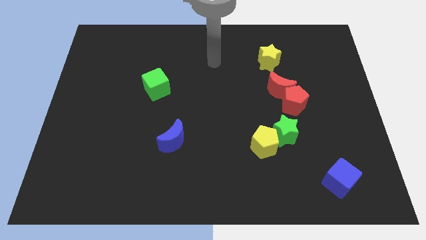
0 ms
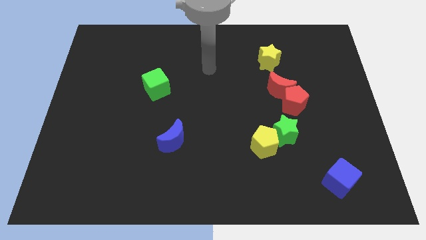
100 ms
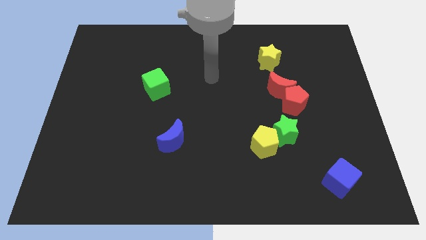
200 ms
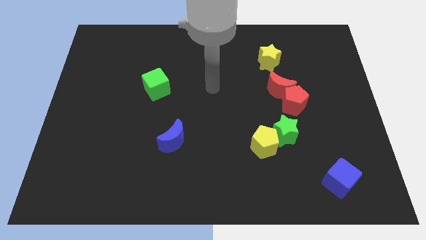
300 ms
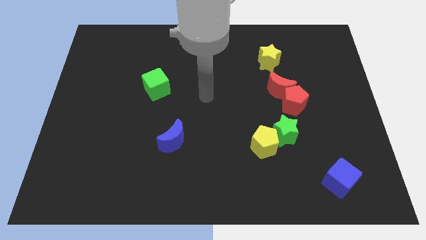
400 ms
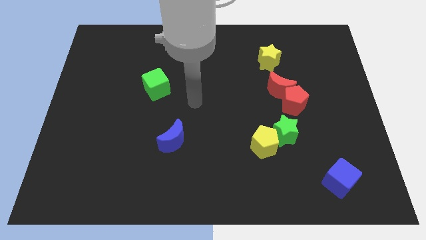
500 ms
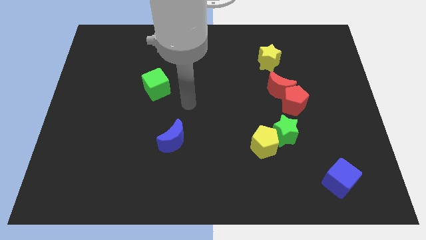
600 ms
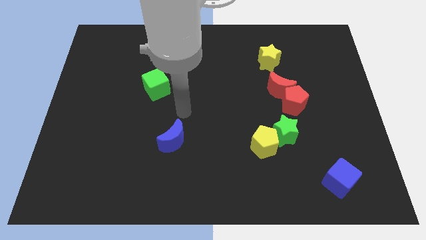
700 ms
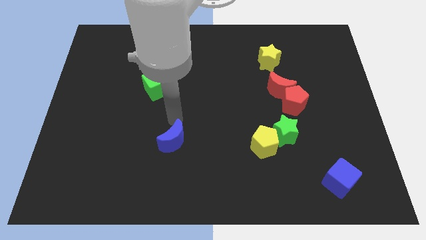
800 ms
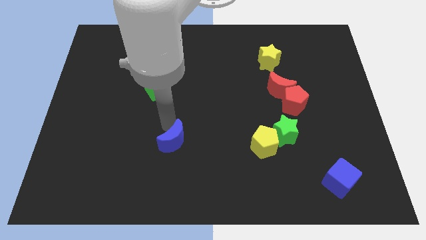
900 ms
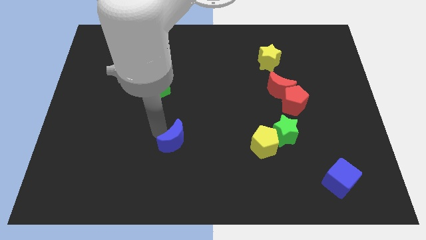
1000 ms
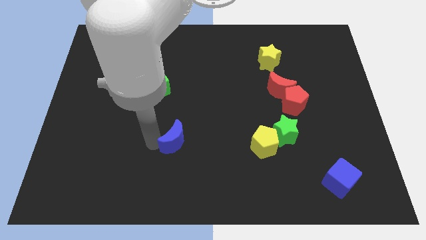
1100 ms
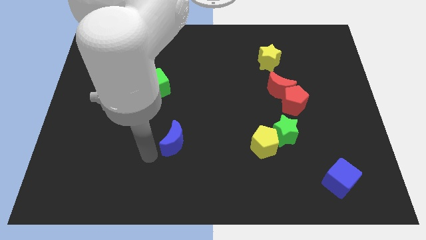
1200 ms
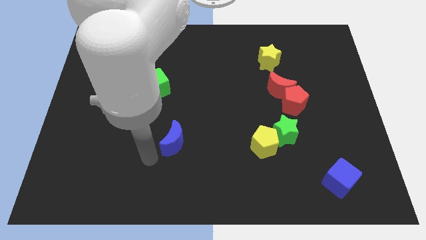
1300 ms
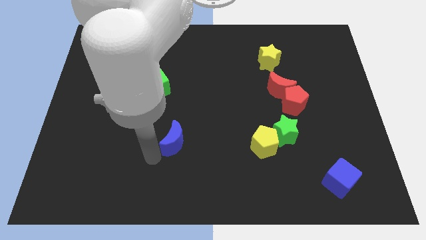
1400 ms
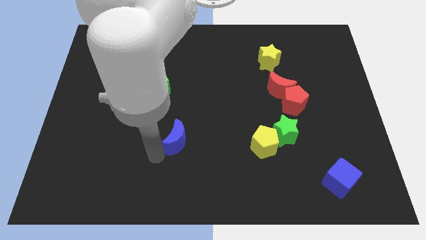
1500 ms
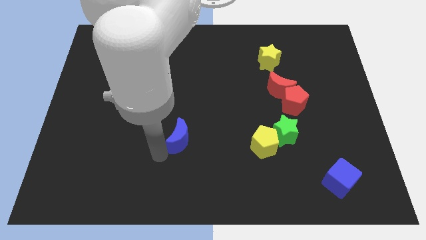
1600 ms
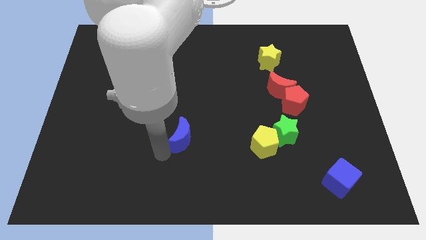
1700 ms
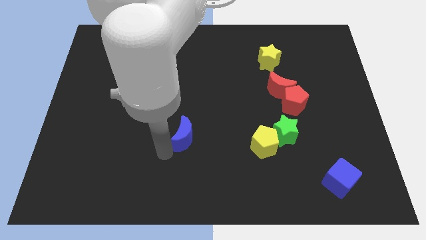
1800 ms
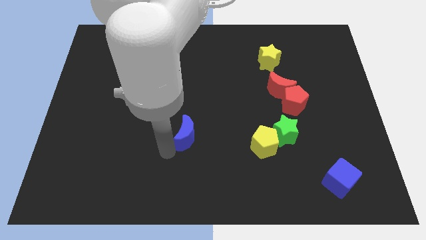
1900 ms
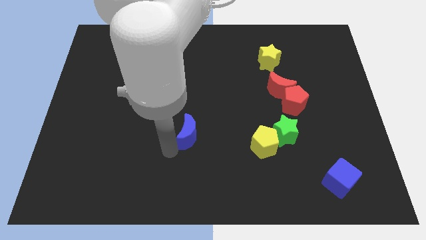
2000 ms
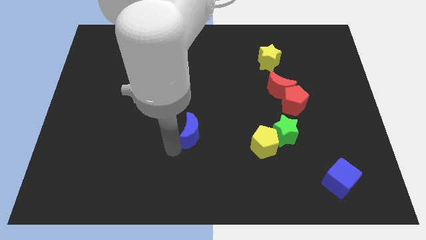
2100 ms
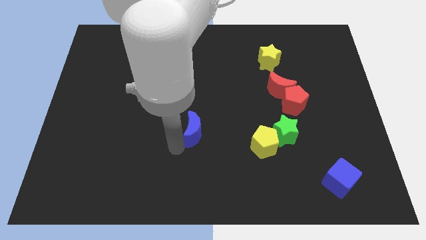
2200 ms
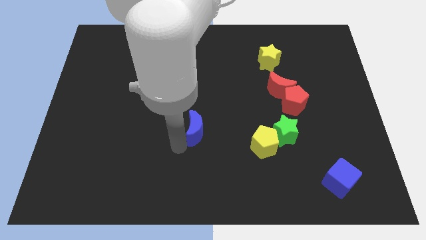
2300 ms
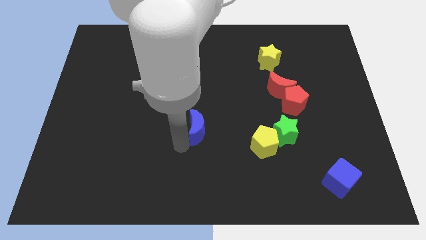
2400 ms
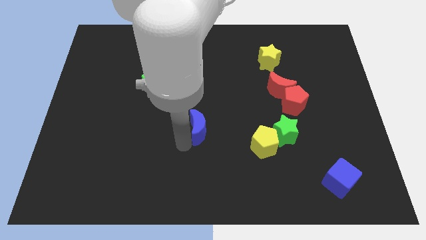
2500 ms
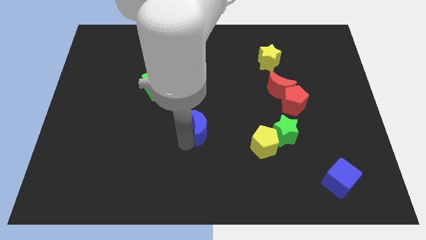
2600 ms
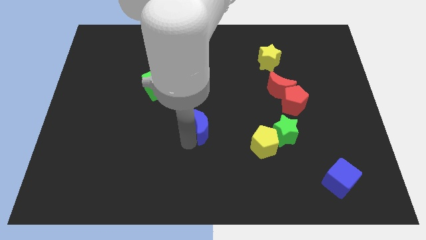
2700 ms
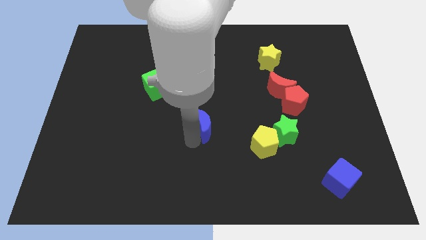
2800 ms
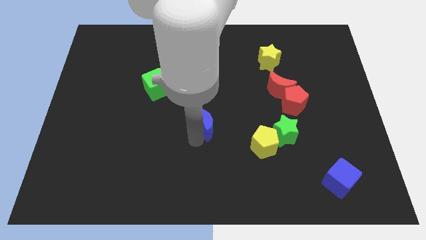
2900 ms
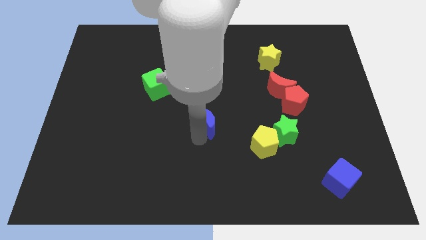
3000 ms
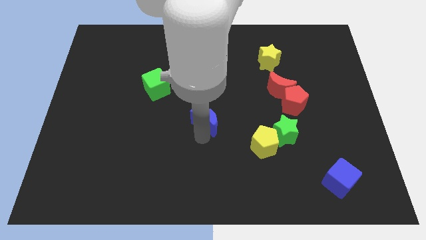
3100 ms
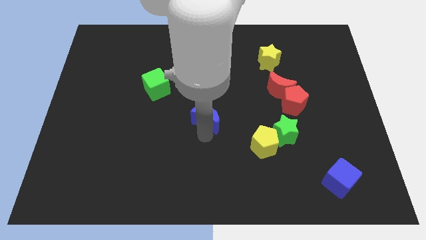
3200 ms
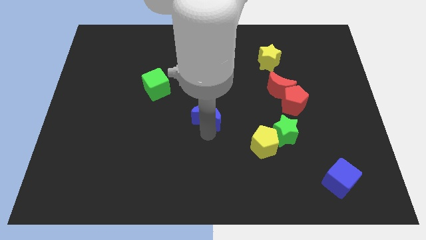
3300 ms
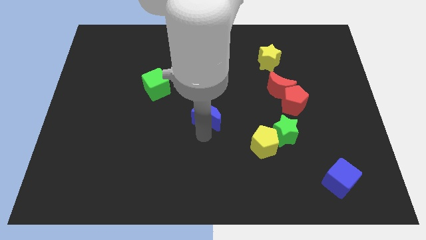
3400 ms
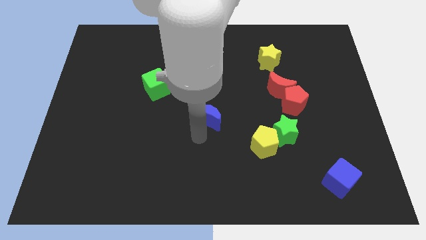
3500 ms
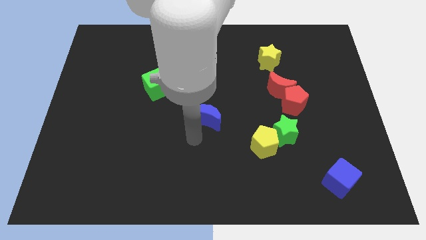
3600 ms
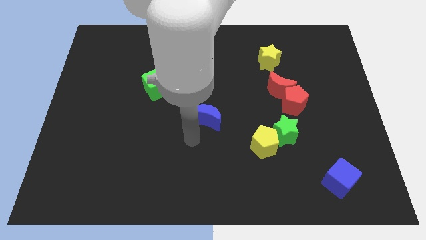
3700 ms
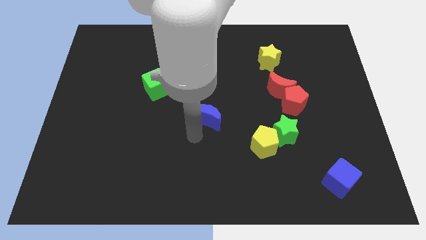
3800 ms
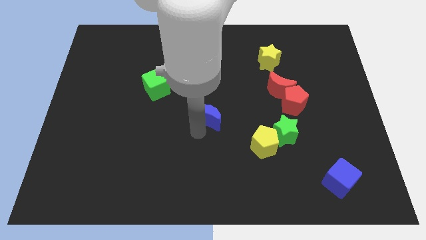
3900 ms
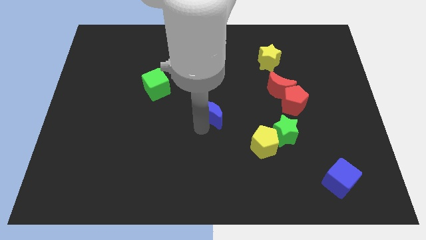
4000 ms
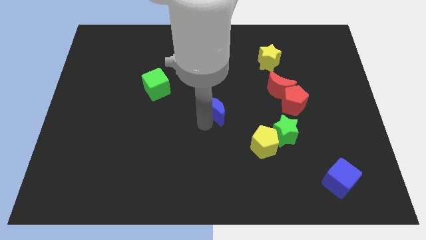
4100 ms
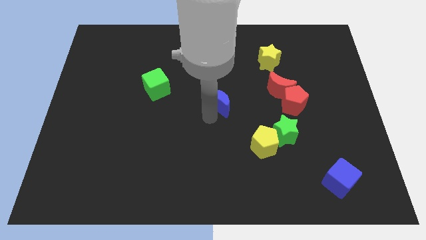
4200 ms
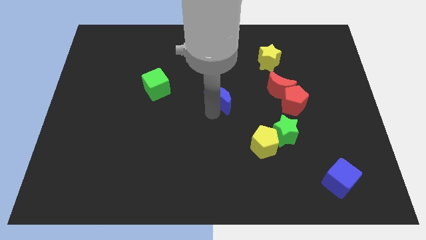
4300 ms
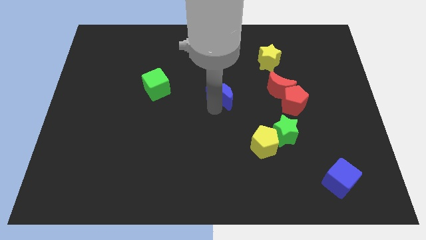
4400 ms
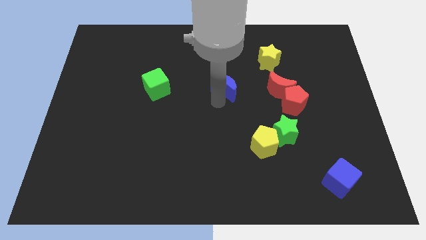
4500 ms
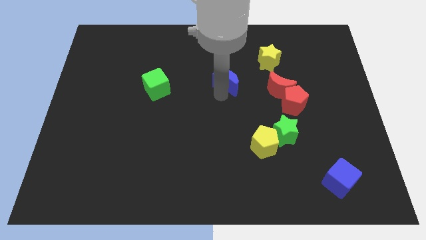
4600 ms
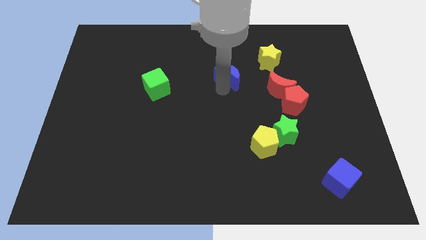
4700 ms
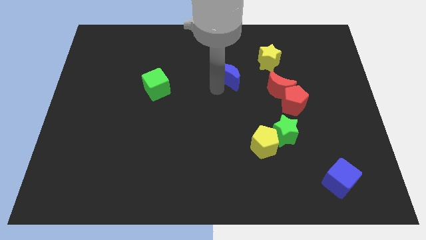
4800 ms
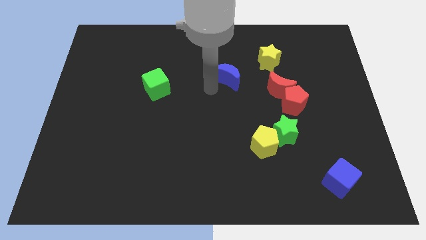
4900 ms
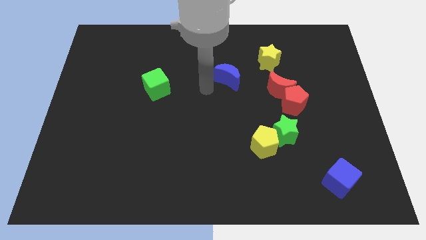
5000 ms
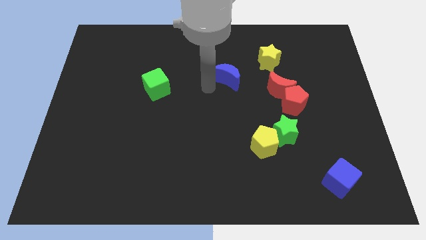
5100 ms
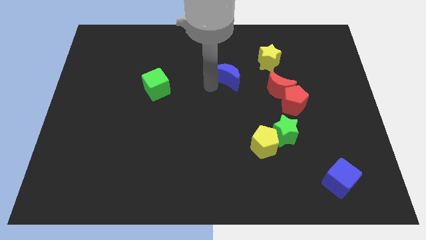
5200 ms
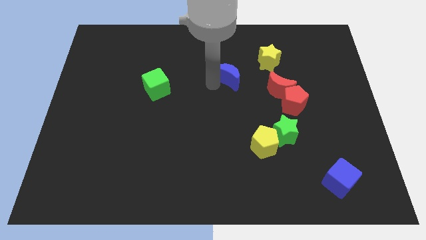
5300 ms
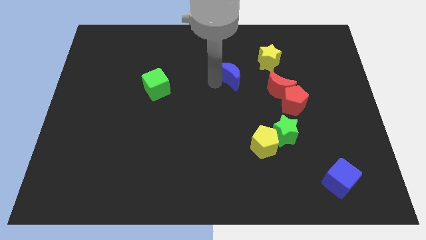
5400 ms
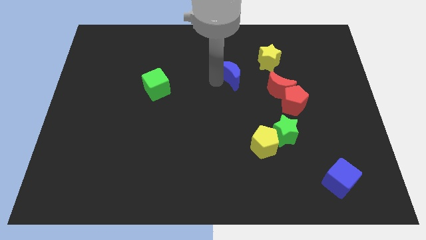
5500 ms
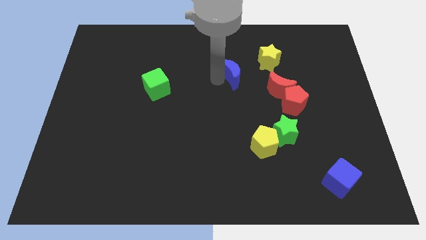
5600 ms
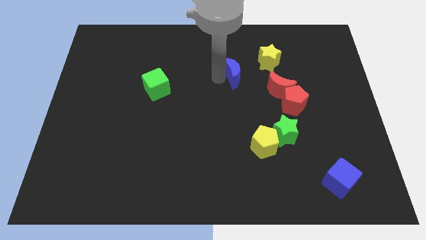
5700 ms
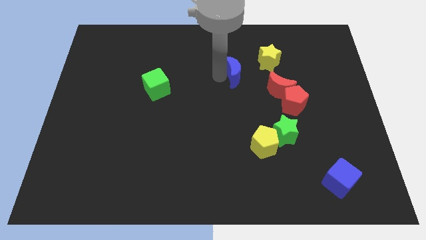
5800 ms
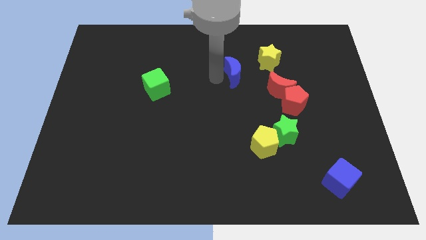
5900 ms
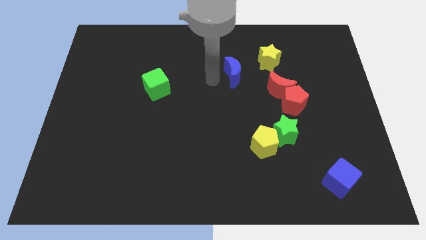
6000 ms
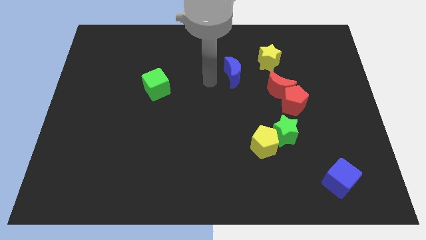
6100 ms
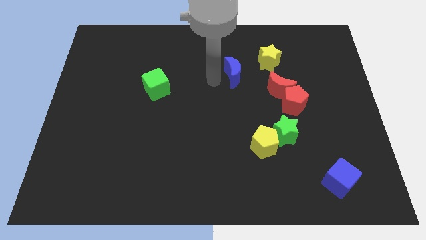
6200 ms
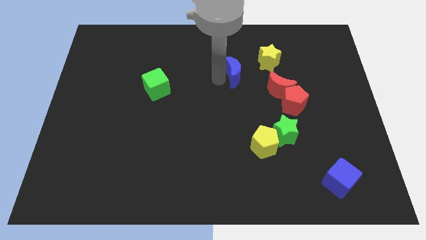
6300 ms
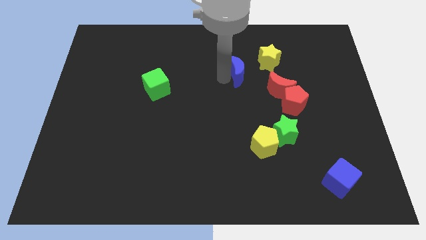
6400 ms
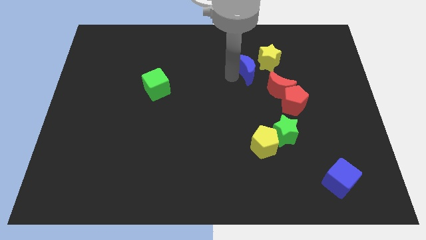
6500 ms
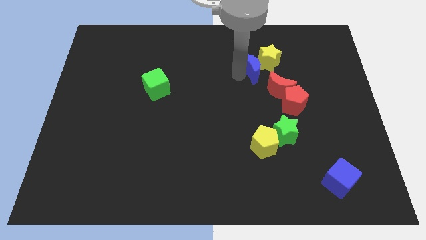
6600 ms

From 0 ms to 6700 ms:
push the blue moon towards the yellow star
